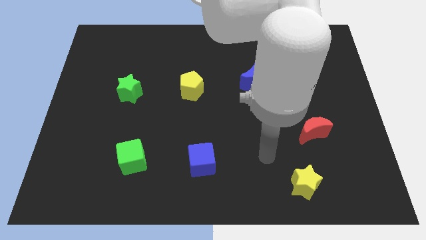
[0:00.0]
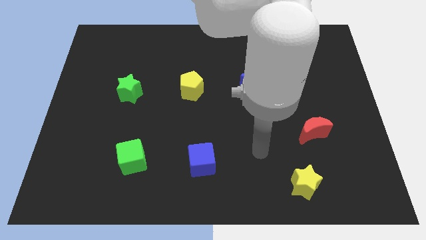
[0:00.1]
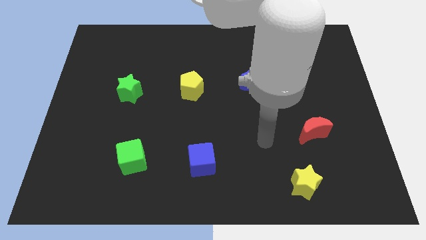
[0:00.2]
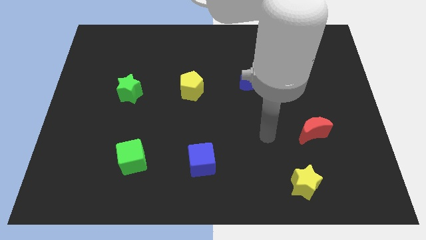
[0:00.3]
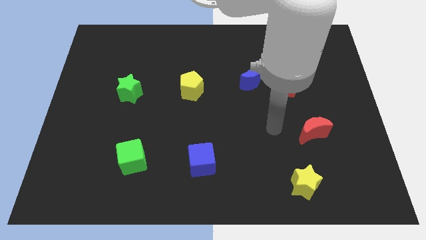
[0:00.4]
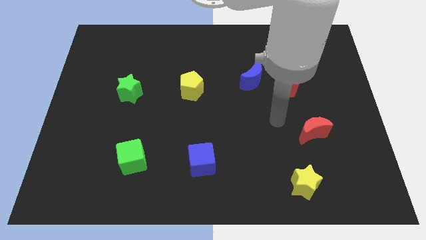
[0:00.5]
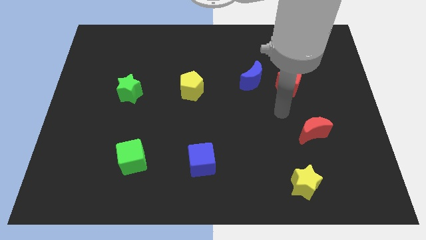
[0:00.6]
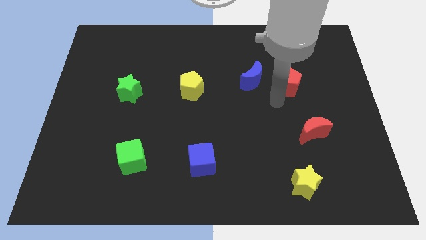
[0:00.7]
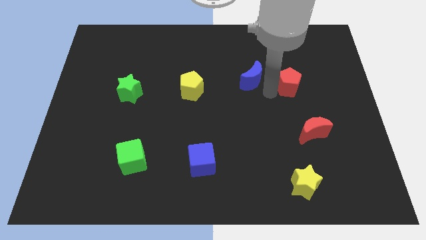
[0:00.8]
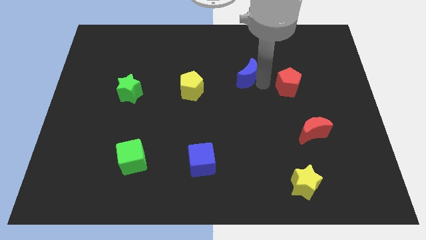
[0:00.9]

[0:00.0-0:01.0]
separate the red pentagon from the blue moon

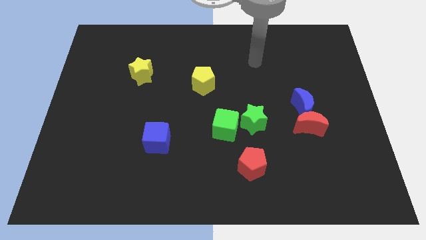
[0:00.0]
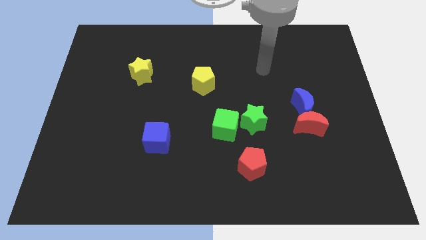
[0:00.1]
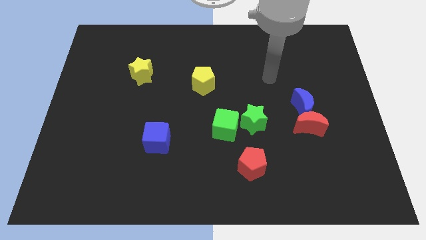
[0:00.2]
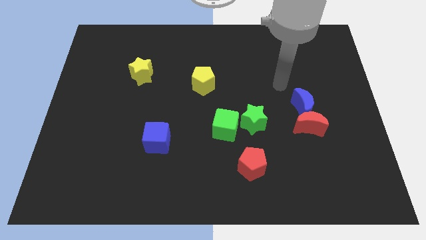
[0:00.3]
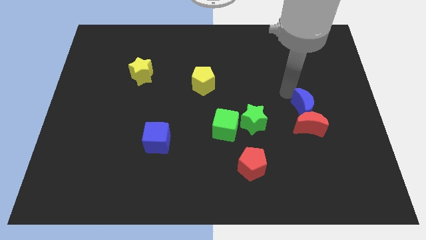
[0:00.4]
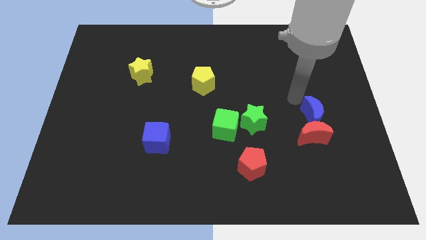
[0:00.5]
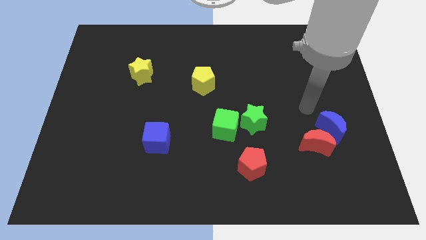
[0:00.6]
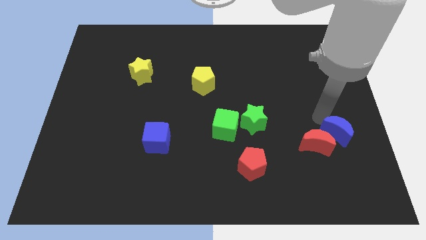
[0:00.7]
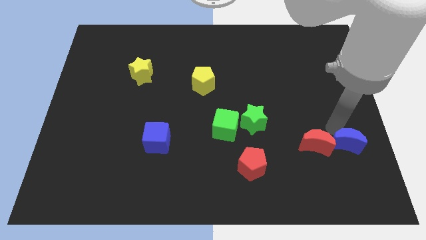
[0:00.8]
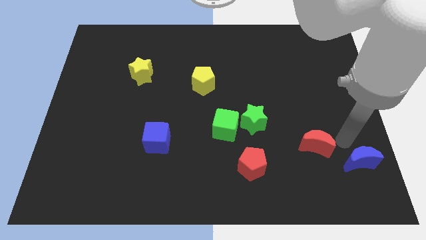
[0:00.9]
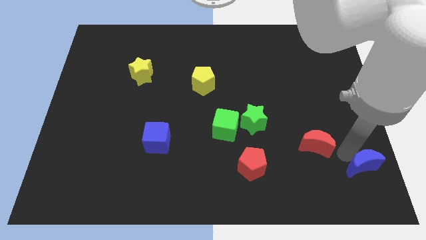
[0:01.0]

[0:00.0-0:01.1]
pull the red moon apart from the blue moon

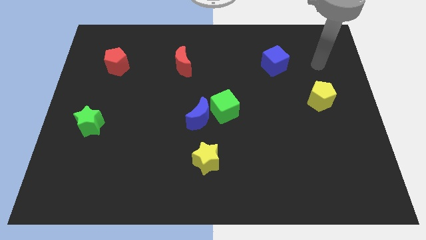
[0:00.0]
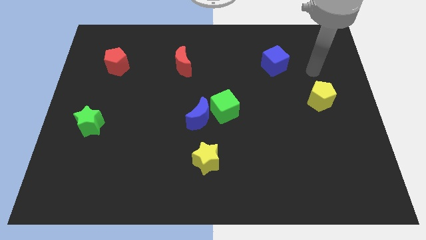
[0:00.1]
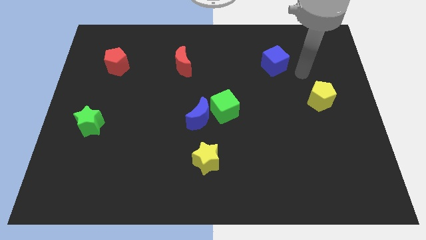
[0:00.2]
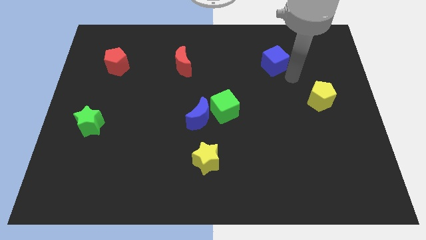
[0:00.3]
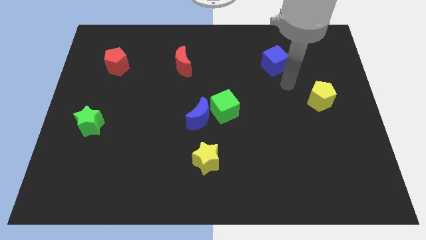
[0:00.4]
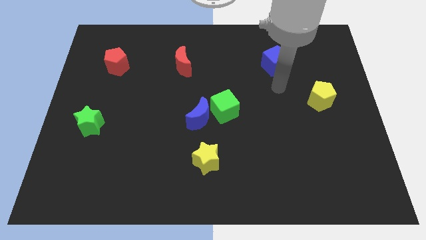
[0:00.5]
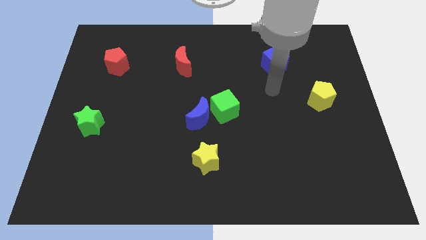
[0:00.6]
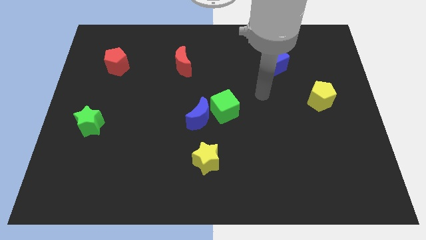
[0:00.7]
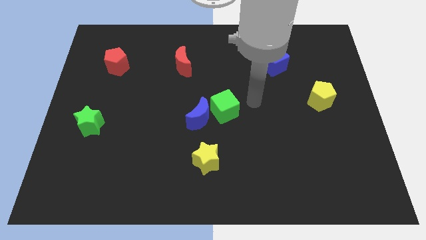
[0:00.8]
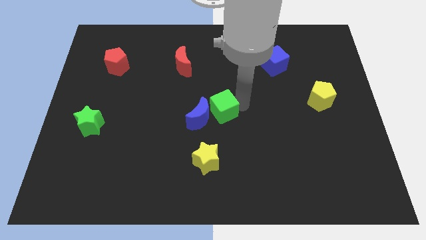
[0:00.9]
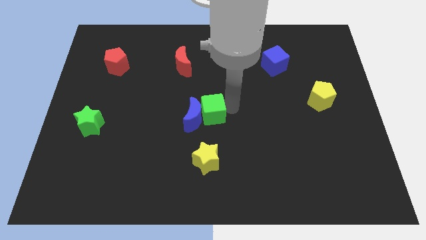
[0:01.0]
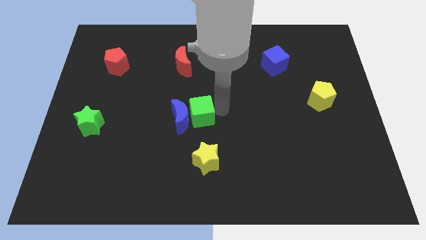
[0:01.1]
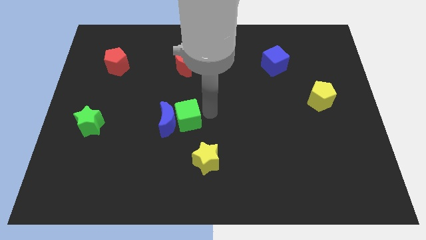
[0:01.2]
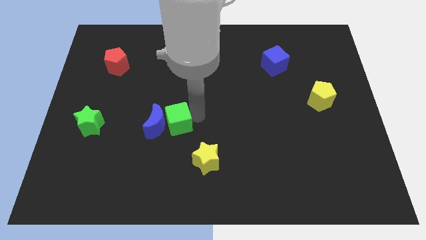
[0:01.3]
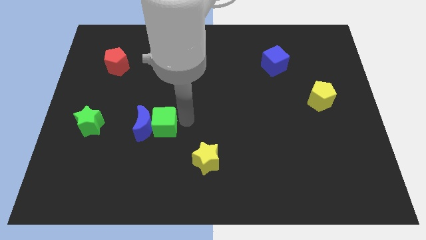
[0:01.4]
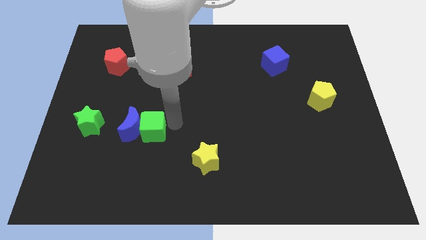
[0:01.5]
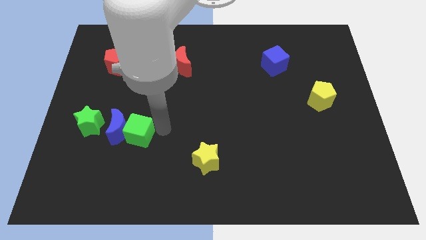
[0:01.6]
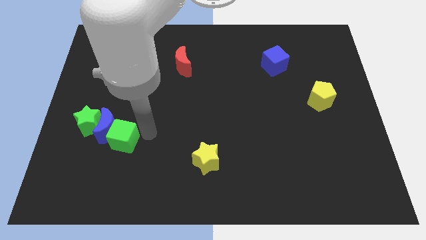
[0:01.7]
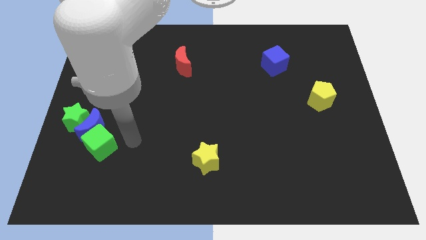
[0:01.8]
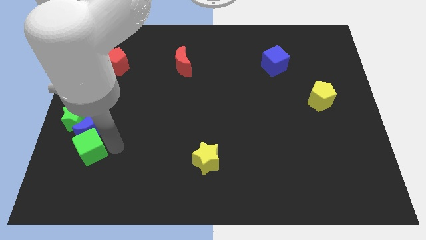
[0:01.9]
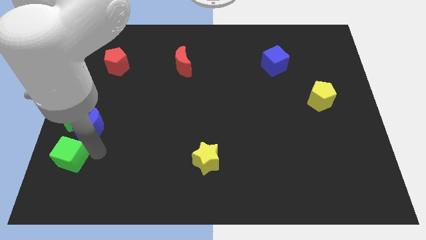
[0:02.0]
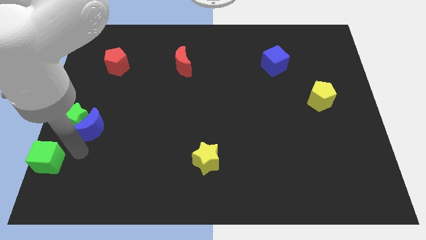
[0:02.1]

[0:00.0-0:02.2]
separate the blue moon from the green cube

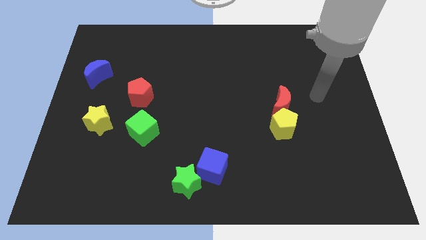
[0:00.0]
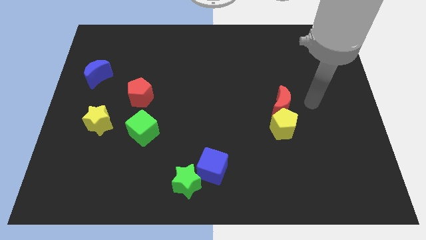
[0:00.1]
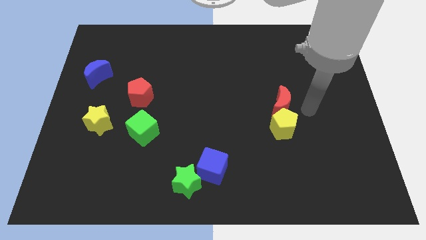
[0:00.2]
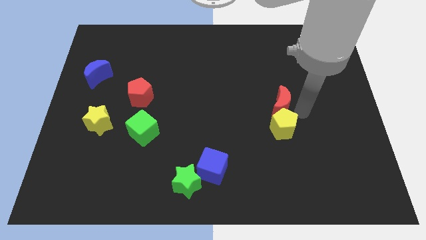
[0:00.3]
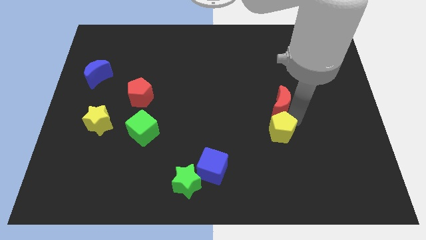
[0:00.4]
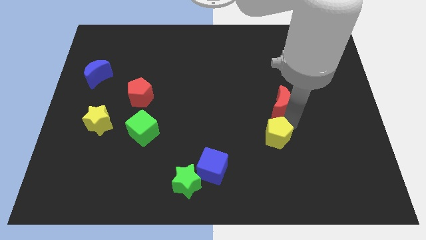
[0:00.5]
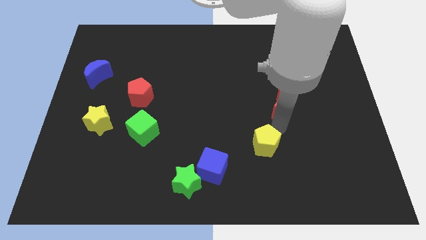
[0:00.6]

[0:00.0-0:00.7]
pull the red moon apart from the yellow pentagon

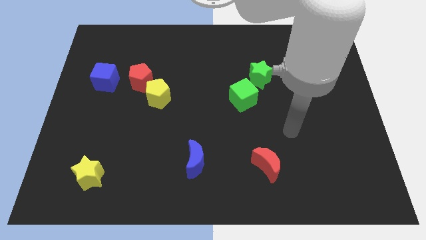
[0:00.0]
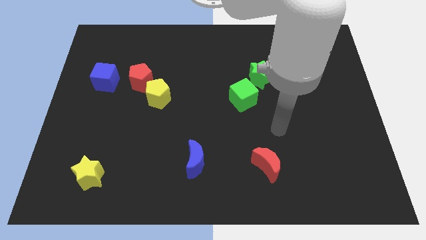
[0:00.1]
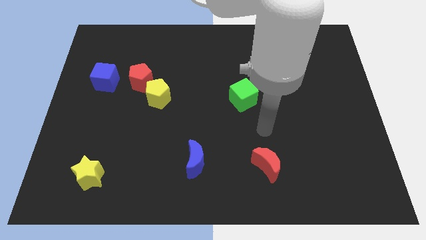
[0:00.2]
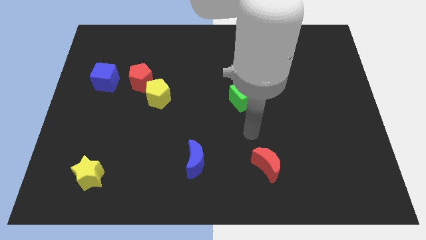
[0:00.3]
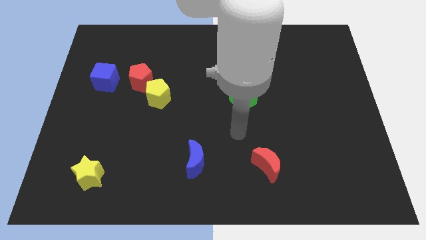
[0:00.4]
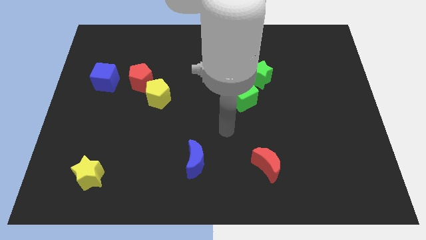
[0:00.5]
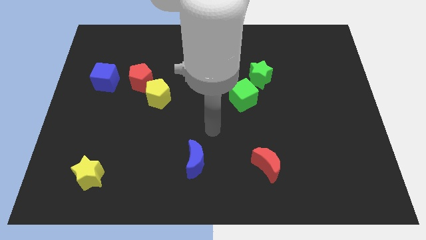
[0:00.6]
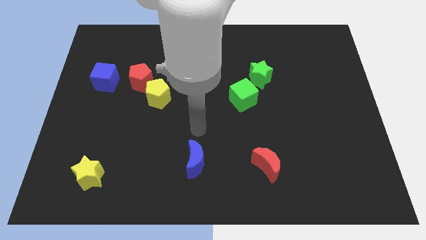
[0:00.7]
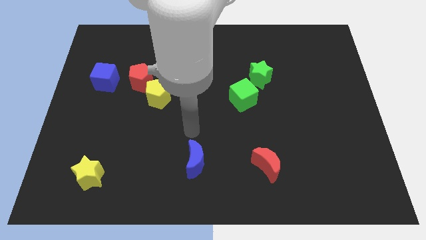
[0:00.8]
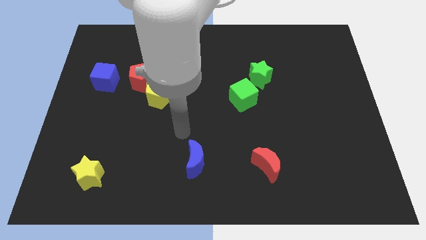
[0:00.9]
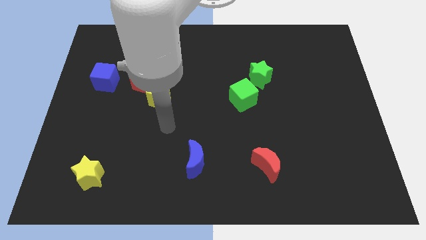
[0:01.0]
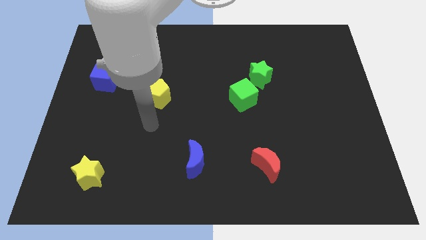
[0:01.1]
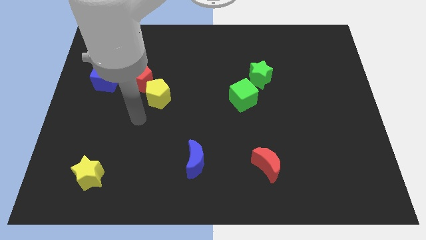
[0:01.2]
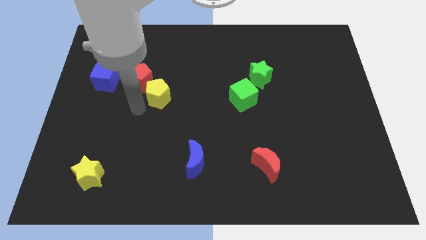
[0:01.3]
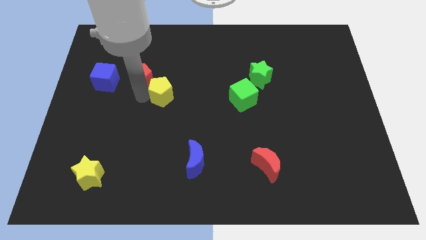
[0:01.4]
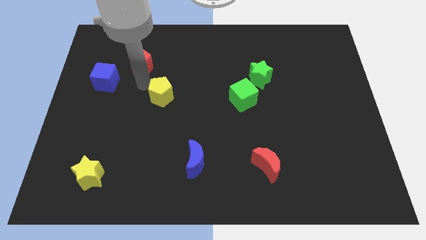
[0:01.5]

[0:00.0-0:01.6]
separate the yellow pentagon from the red pentagon

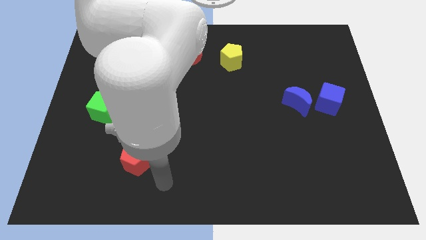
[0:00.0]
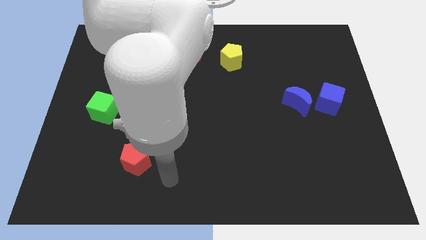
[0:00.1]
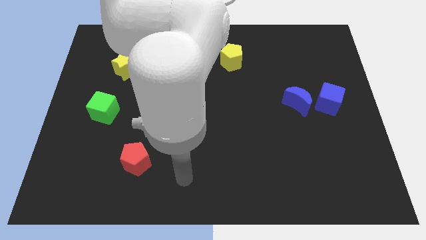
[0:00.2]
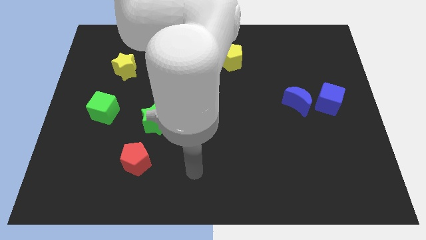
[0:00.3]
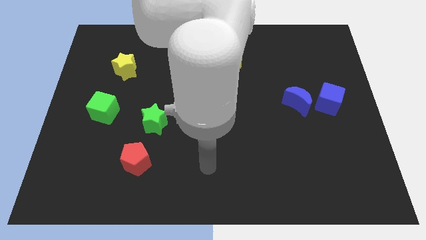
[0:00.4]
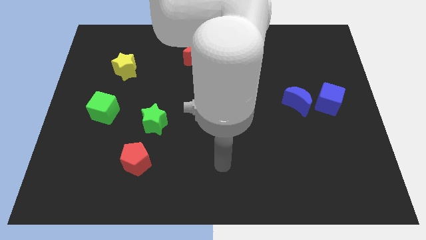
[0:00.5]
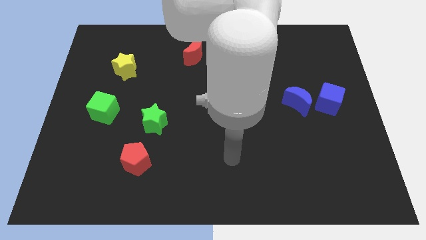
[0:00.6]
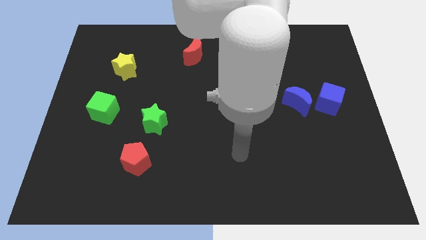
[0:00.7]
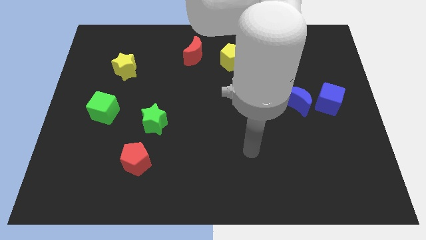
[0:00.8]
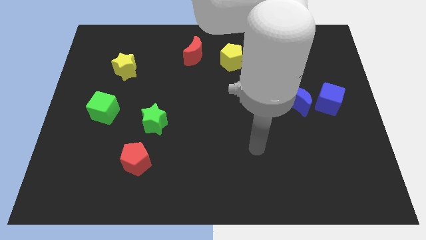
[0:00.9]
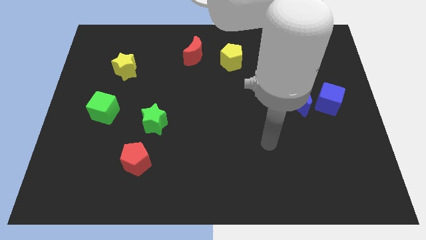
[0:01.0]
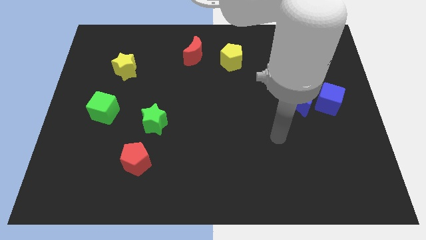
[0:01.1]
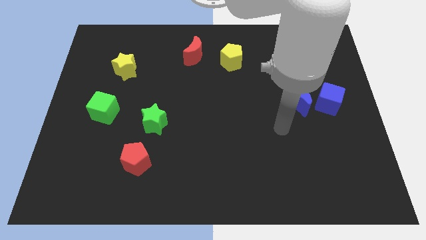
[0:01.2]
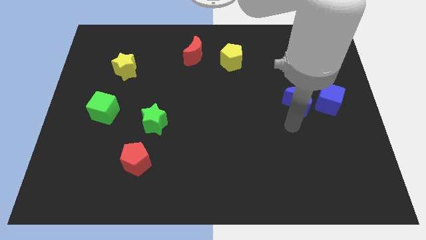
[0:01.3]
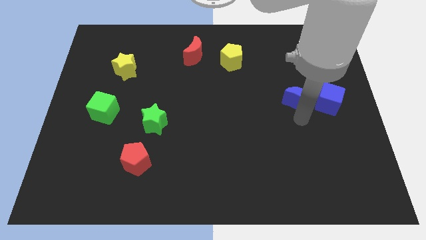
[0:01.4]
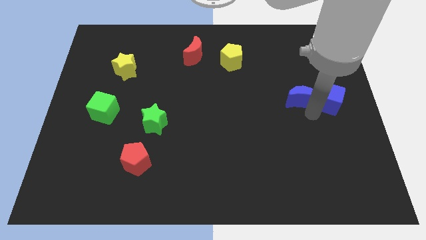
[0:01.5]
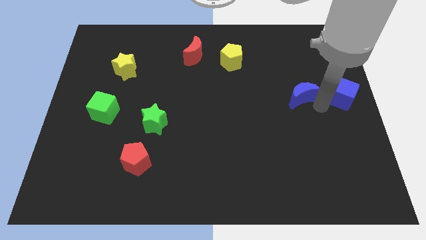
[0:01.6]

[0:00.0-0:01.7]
pull the blue moon apart from the blue cube

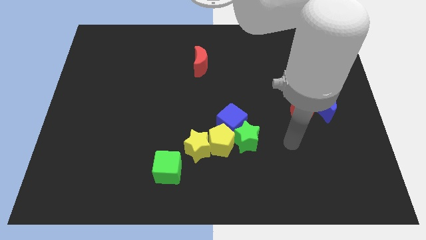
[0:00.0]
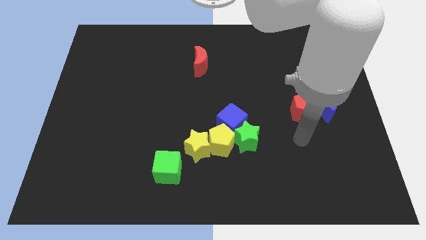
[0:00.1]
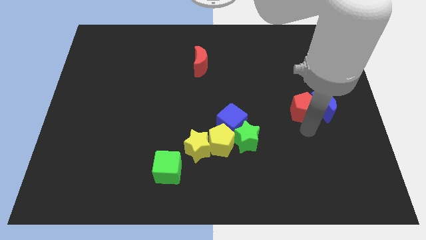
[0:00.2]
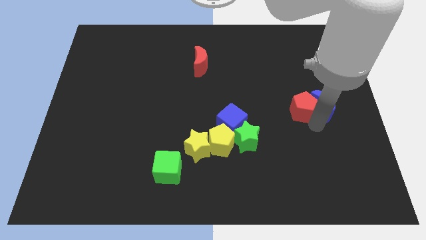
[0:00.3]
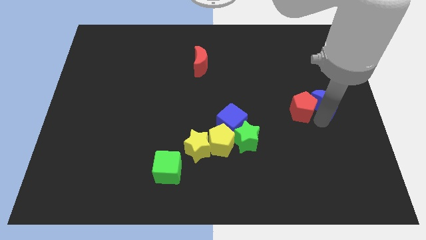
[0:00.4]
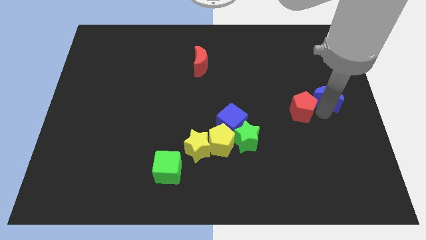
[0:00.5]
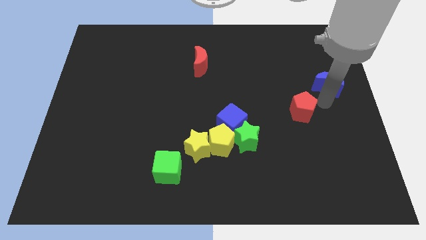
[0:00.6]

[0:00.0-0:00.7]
move the red pentagon away from the blue moon

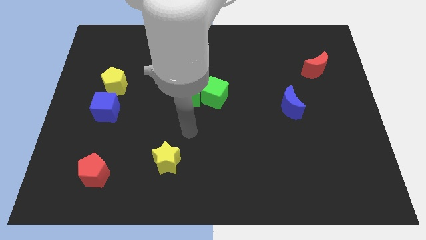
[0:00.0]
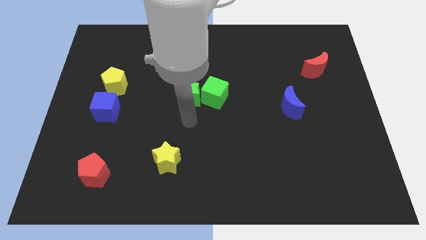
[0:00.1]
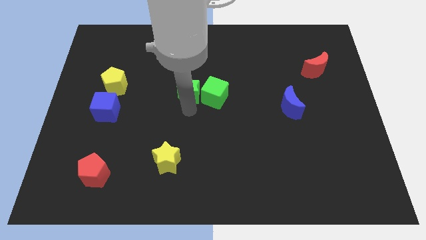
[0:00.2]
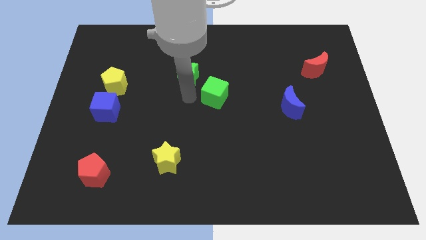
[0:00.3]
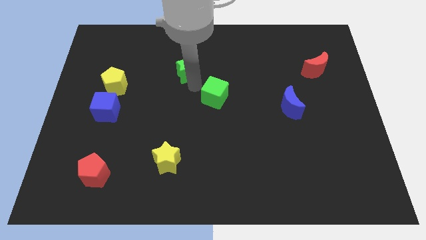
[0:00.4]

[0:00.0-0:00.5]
pull the green cube apart from the green star
